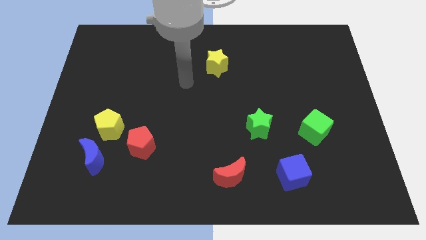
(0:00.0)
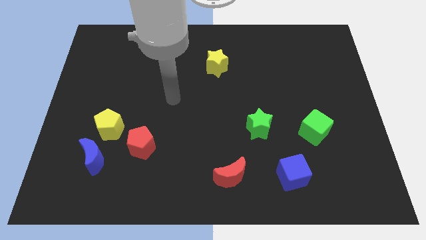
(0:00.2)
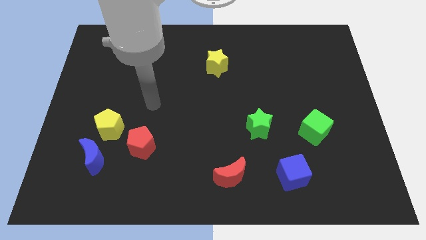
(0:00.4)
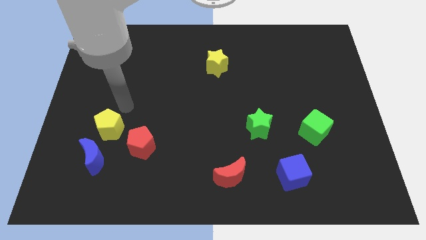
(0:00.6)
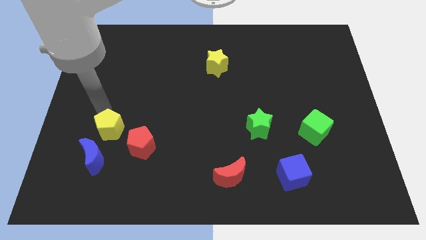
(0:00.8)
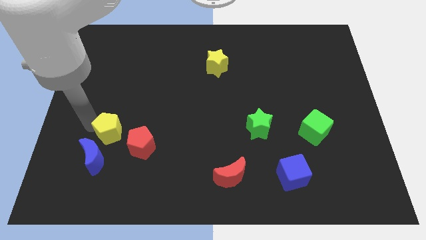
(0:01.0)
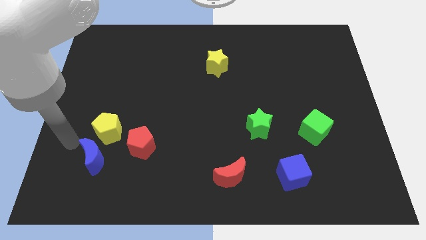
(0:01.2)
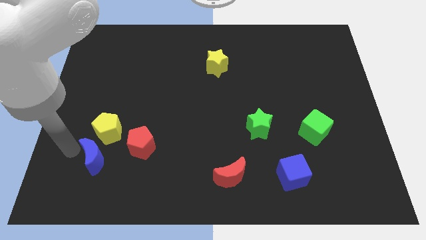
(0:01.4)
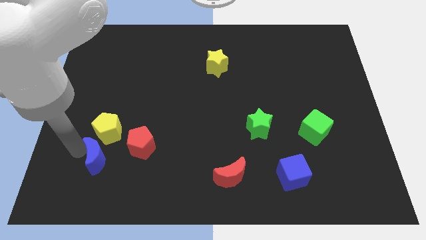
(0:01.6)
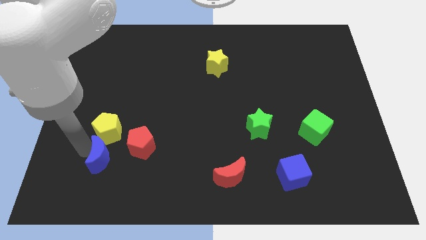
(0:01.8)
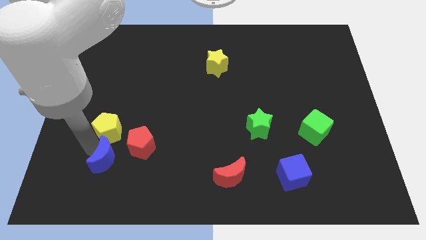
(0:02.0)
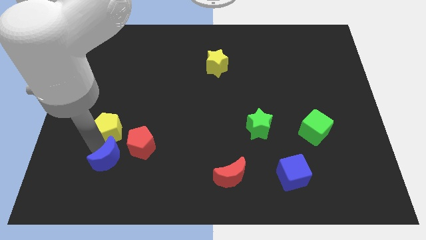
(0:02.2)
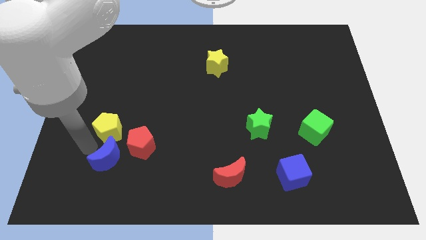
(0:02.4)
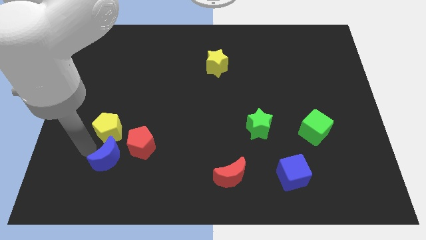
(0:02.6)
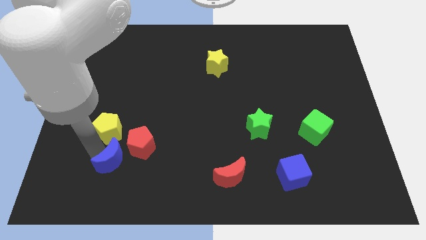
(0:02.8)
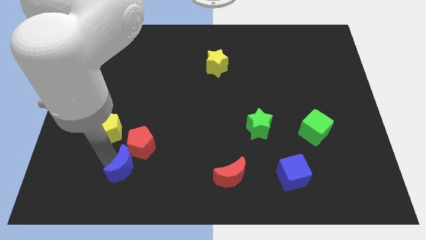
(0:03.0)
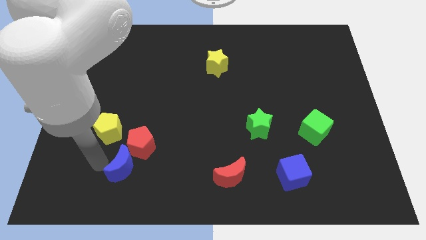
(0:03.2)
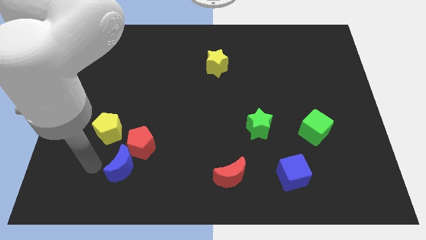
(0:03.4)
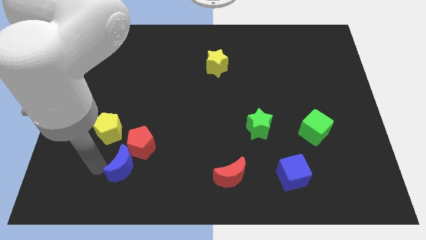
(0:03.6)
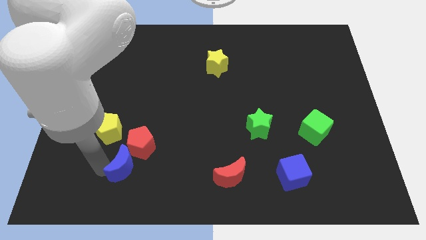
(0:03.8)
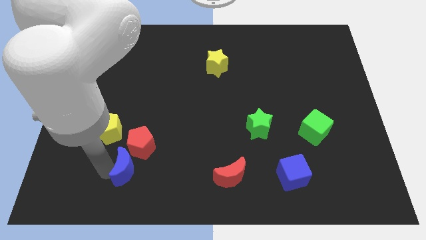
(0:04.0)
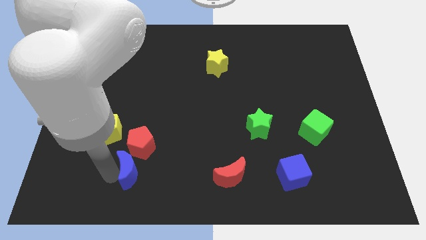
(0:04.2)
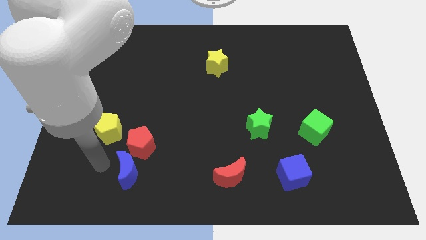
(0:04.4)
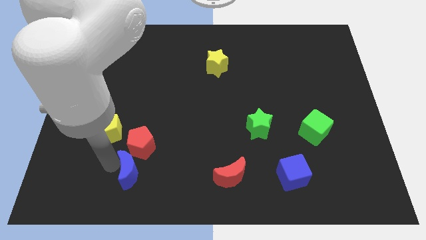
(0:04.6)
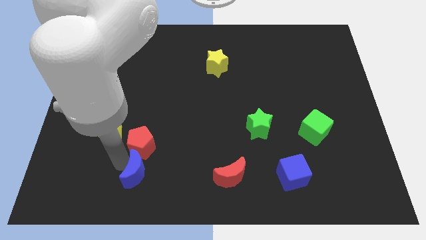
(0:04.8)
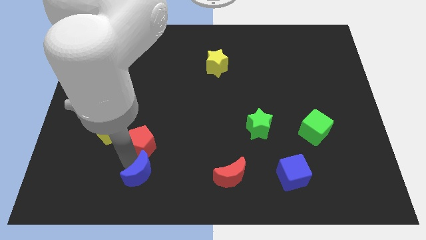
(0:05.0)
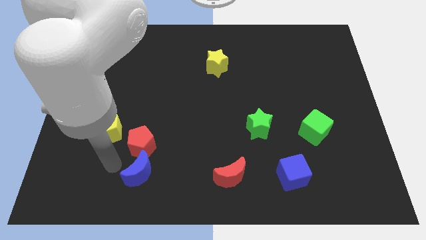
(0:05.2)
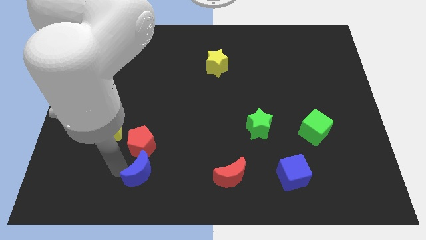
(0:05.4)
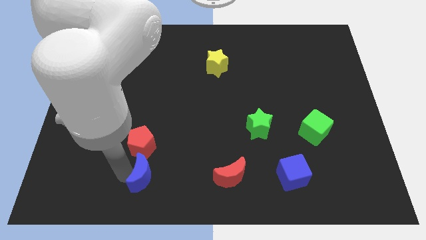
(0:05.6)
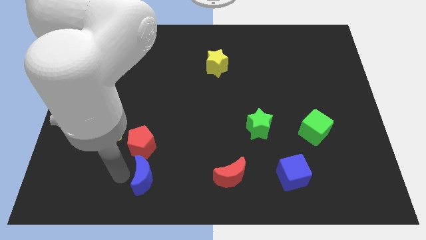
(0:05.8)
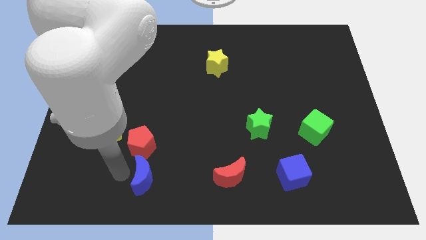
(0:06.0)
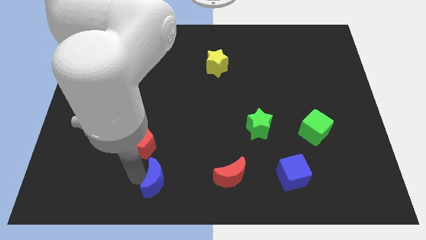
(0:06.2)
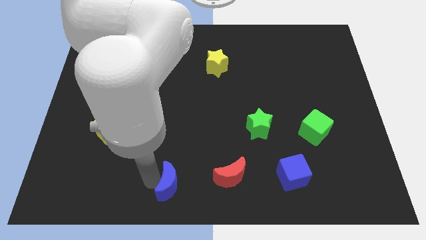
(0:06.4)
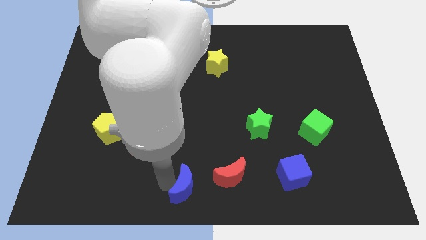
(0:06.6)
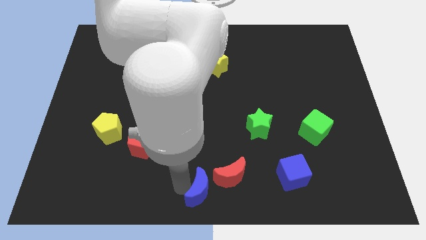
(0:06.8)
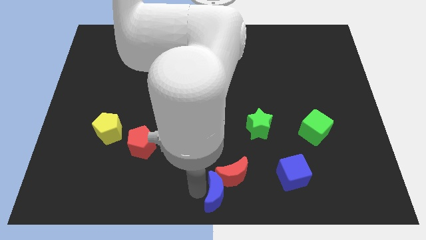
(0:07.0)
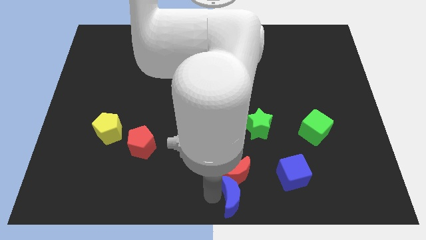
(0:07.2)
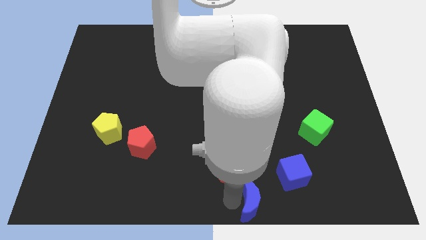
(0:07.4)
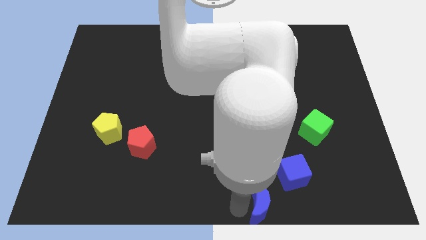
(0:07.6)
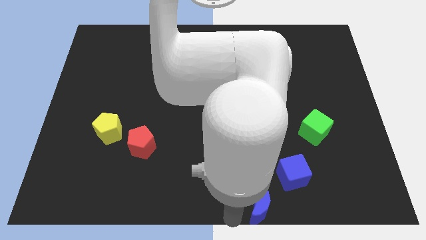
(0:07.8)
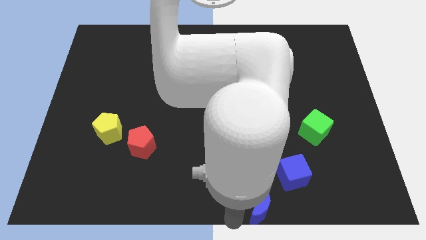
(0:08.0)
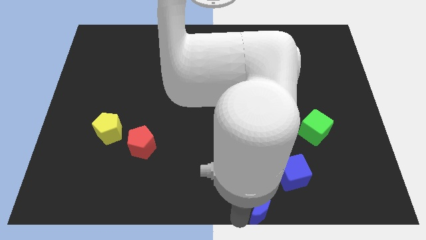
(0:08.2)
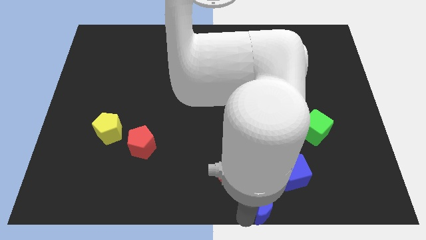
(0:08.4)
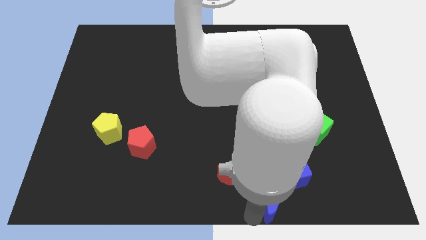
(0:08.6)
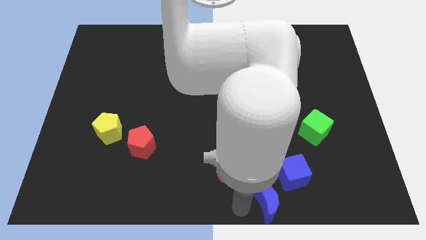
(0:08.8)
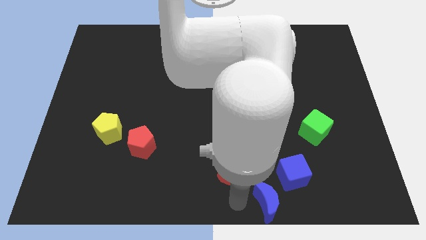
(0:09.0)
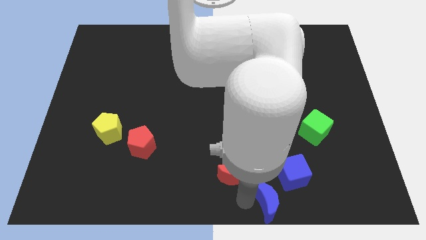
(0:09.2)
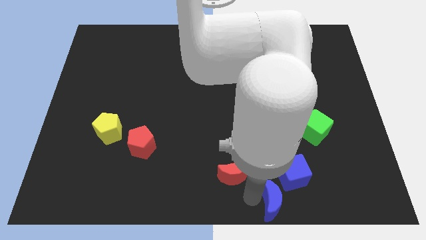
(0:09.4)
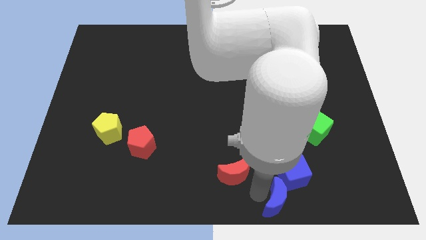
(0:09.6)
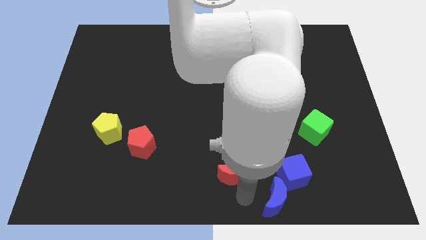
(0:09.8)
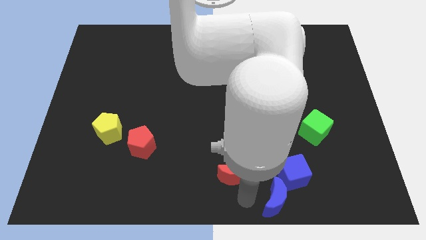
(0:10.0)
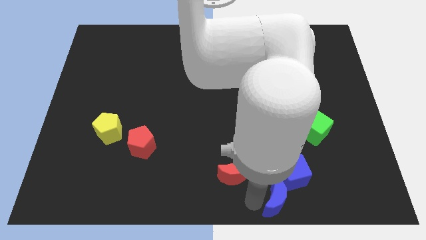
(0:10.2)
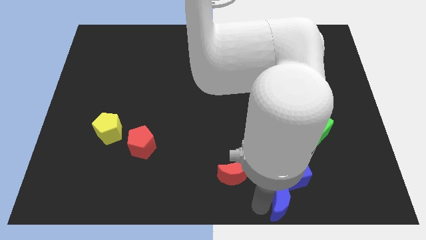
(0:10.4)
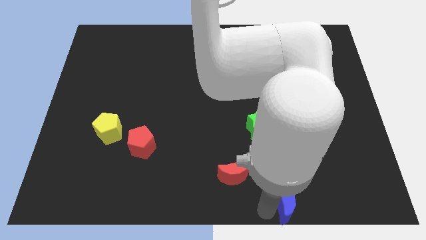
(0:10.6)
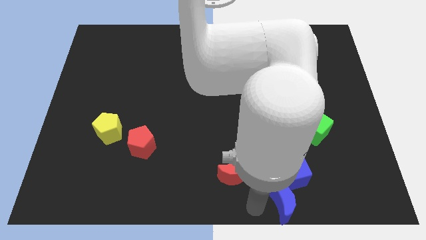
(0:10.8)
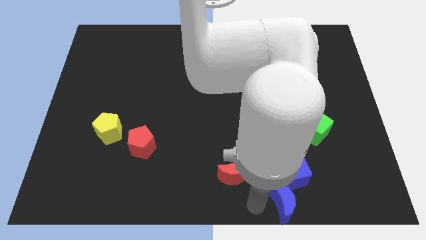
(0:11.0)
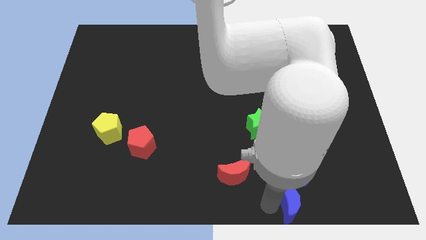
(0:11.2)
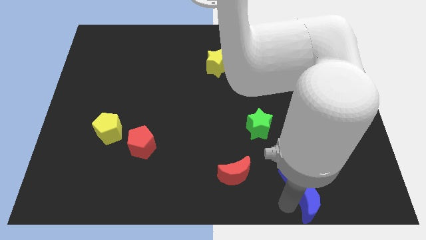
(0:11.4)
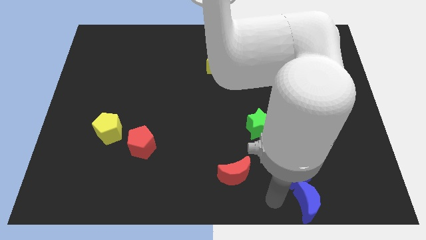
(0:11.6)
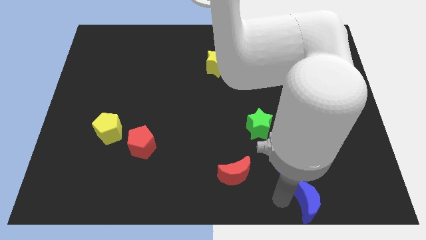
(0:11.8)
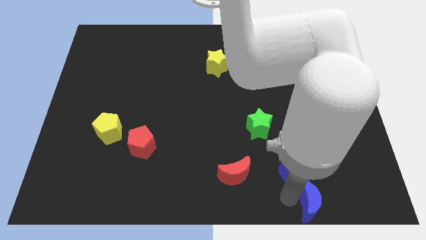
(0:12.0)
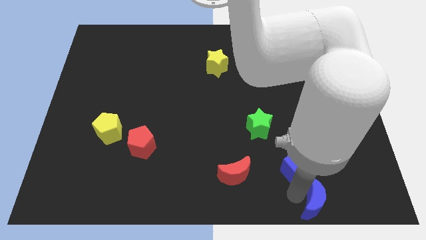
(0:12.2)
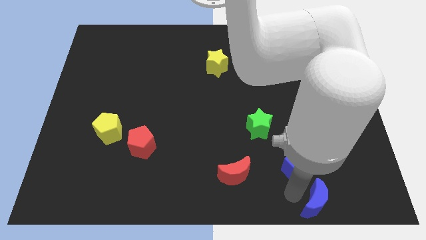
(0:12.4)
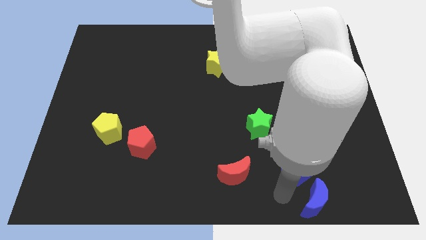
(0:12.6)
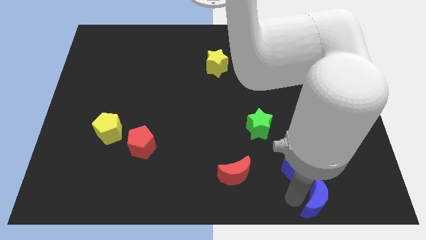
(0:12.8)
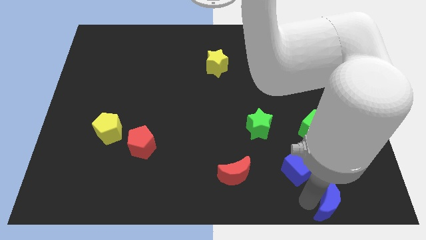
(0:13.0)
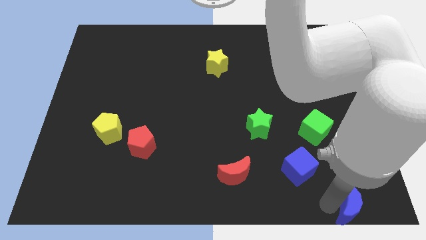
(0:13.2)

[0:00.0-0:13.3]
push the blue moon to the bottom right of the board

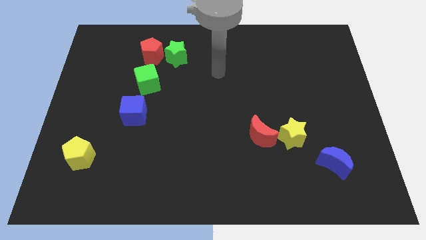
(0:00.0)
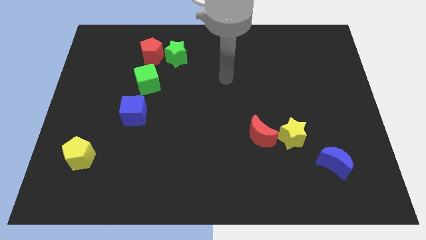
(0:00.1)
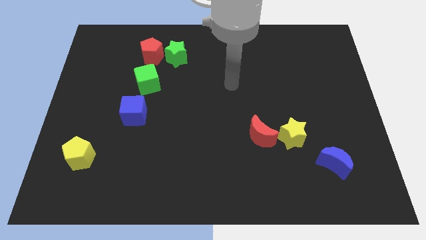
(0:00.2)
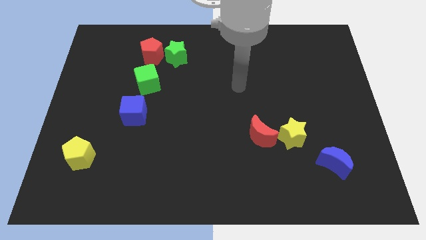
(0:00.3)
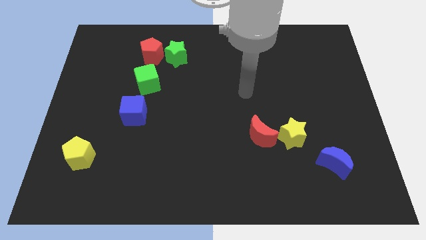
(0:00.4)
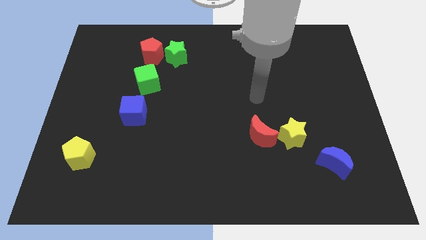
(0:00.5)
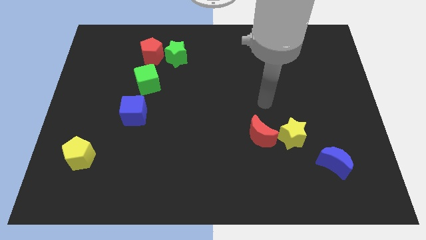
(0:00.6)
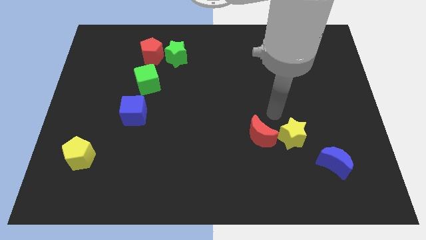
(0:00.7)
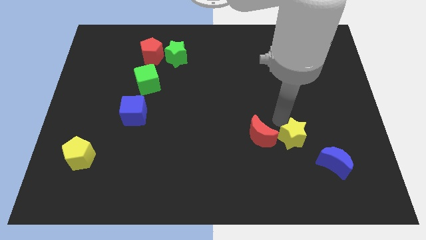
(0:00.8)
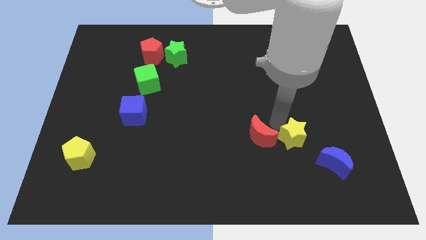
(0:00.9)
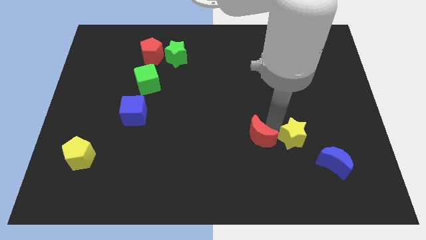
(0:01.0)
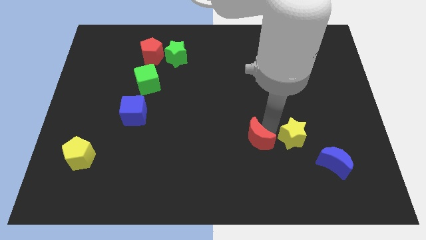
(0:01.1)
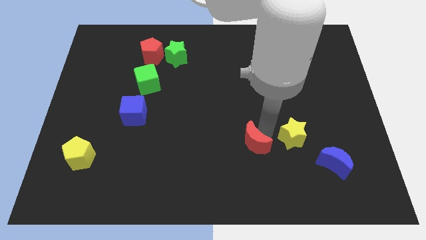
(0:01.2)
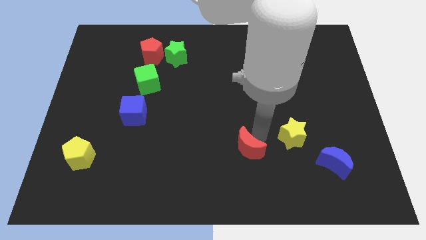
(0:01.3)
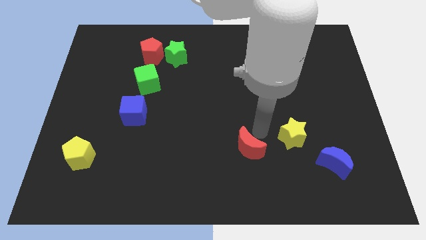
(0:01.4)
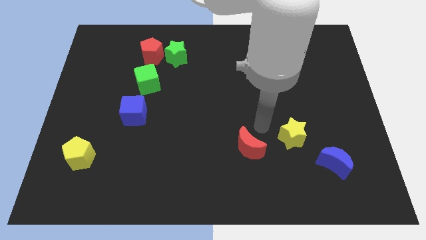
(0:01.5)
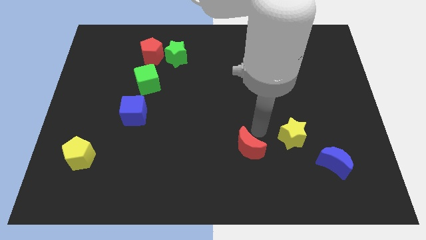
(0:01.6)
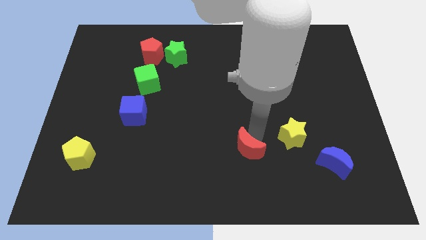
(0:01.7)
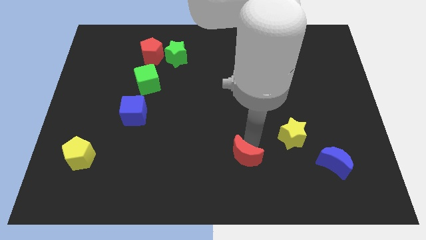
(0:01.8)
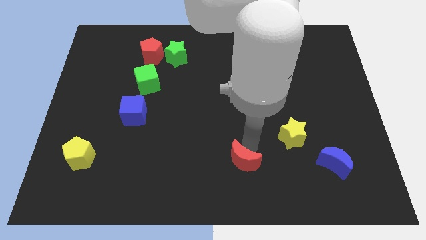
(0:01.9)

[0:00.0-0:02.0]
move the red moon to the bottom side
